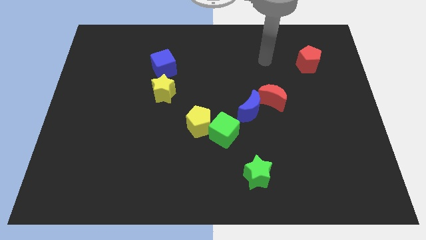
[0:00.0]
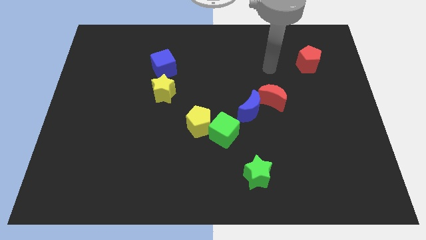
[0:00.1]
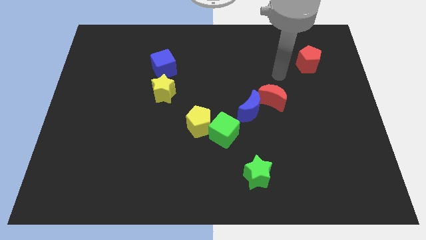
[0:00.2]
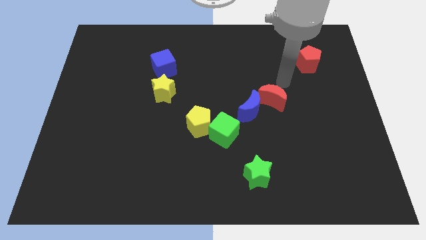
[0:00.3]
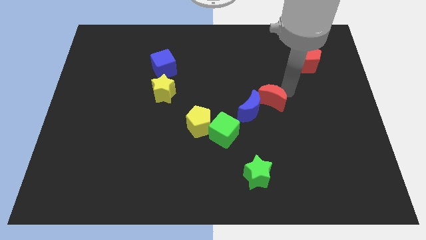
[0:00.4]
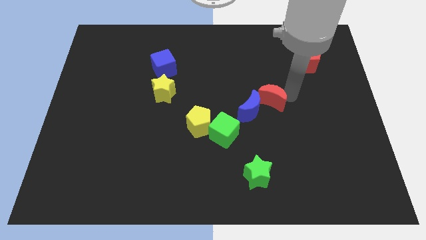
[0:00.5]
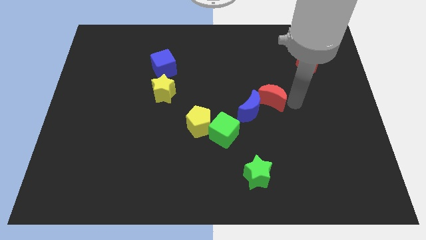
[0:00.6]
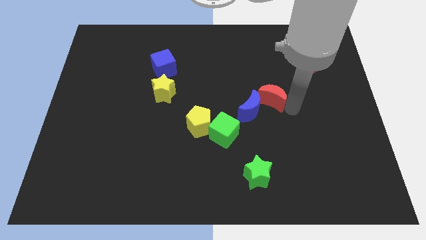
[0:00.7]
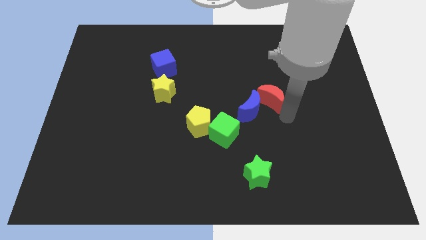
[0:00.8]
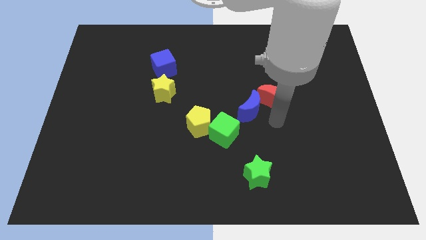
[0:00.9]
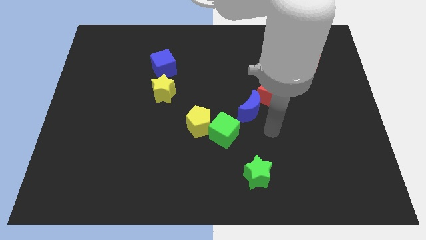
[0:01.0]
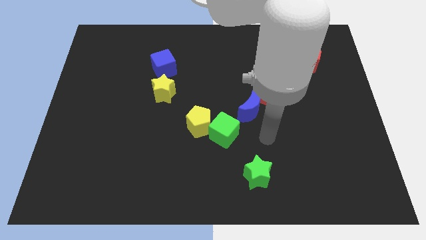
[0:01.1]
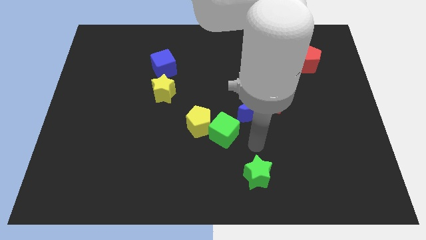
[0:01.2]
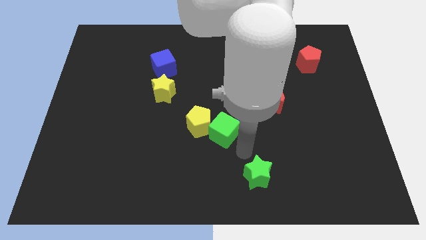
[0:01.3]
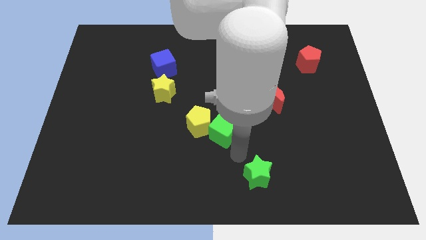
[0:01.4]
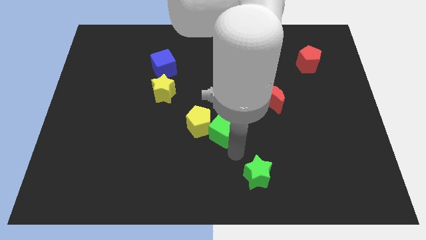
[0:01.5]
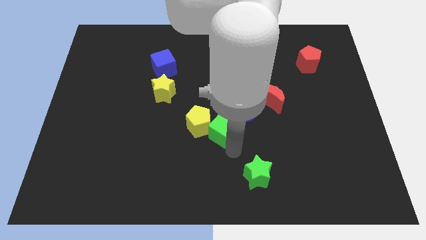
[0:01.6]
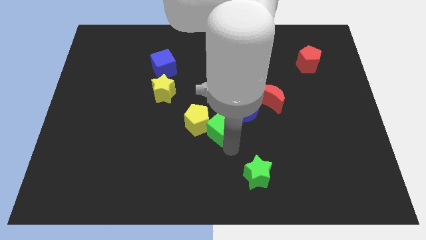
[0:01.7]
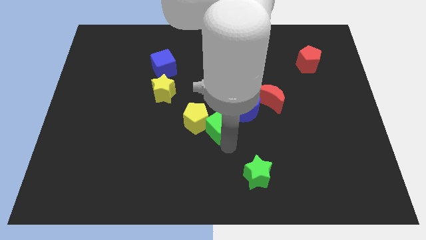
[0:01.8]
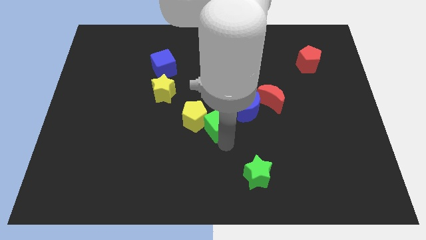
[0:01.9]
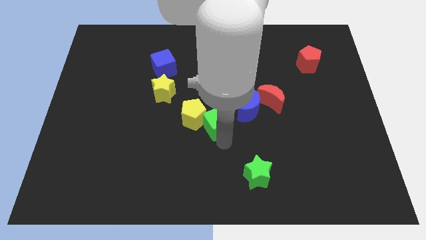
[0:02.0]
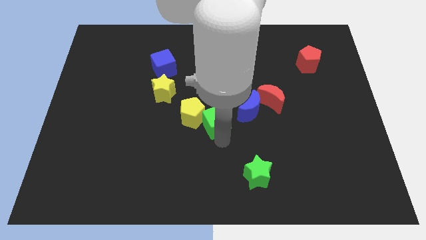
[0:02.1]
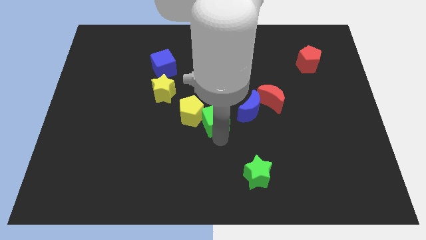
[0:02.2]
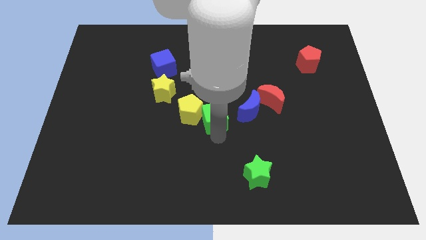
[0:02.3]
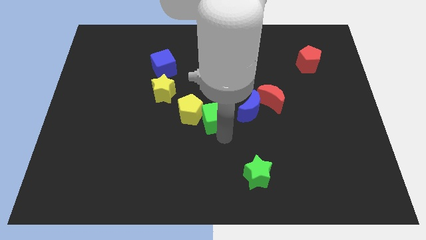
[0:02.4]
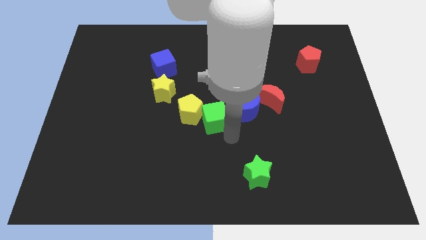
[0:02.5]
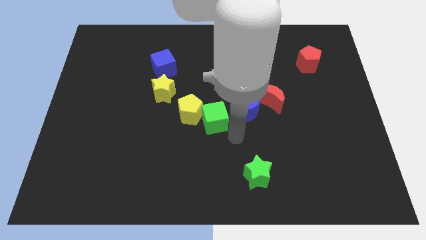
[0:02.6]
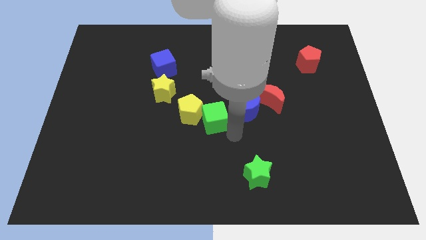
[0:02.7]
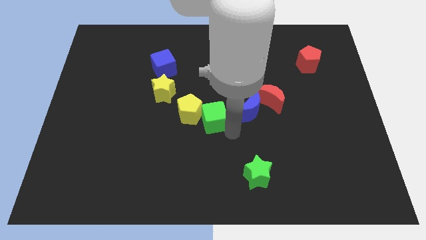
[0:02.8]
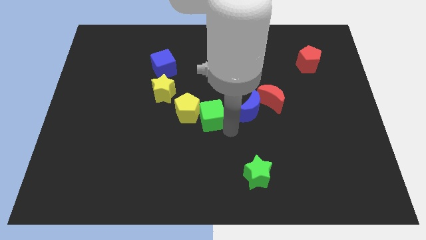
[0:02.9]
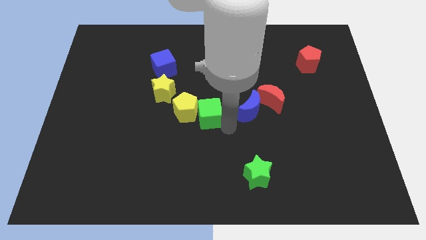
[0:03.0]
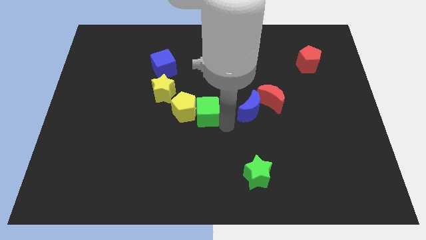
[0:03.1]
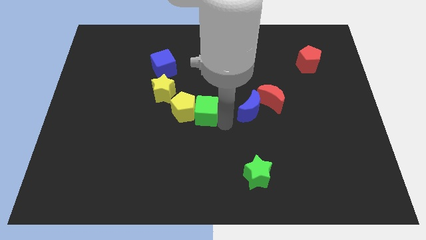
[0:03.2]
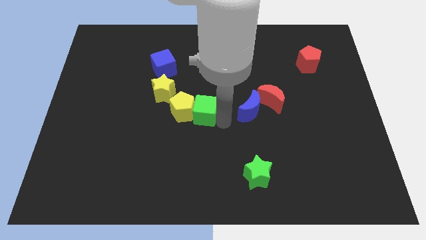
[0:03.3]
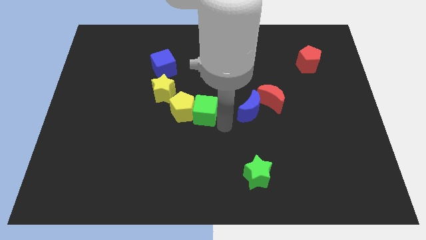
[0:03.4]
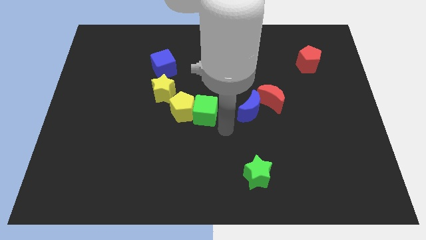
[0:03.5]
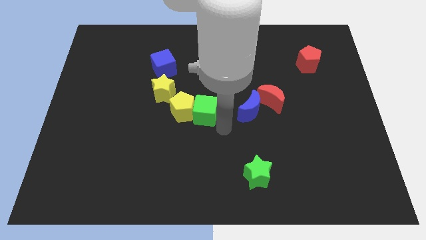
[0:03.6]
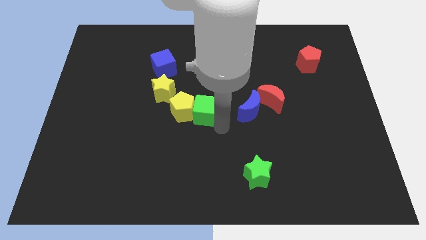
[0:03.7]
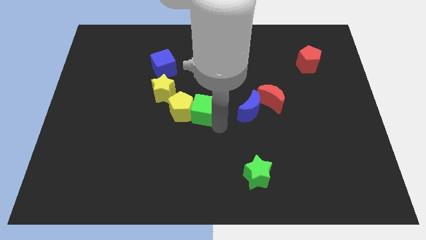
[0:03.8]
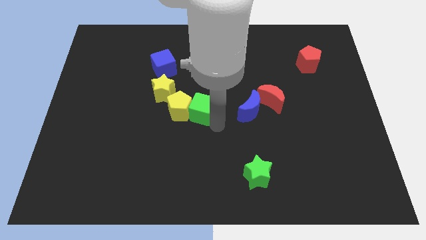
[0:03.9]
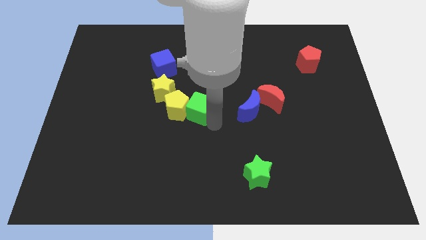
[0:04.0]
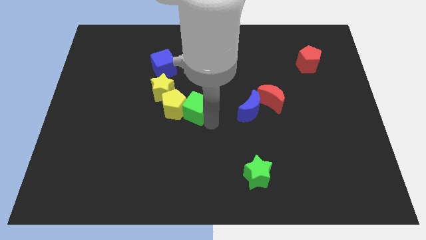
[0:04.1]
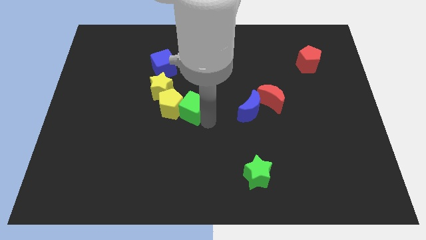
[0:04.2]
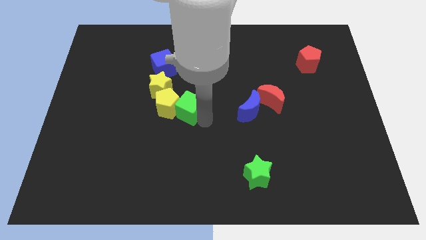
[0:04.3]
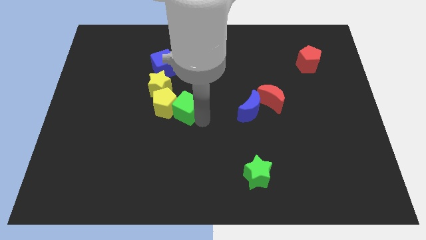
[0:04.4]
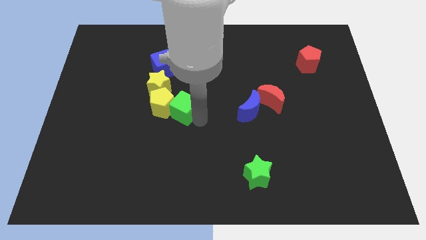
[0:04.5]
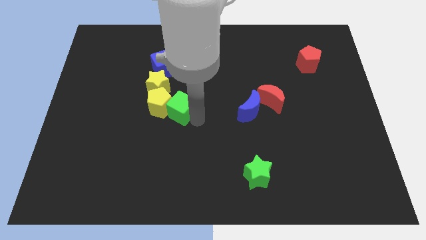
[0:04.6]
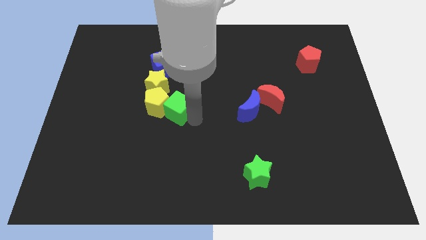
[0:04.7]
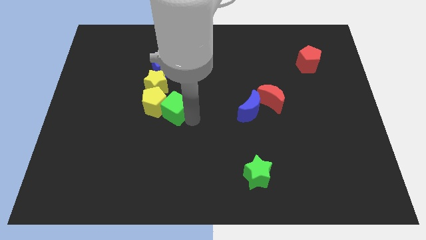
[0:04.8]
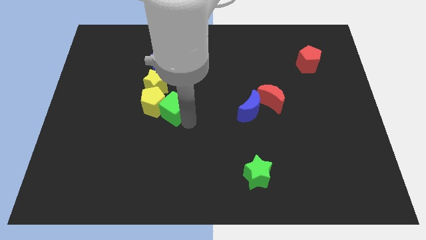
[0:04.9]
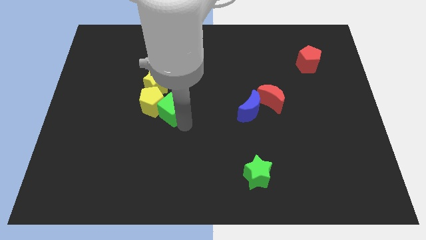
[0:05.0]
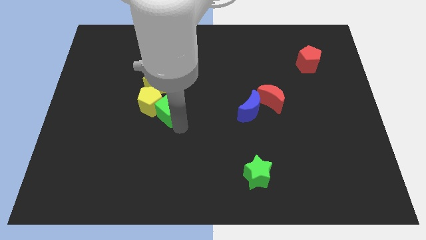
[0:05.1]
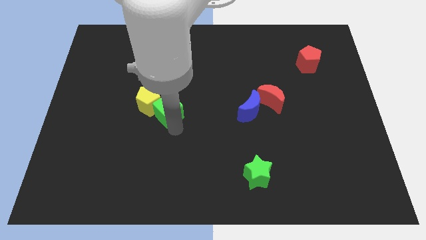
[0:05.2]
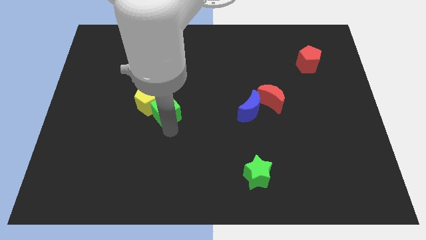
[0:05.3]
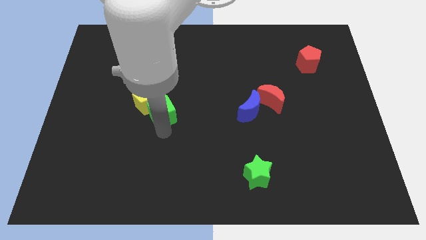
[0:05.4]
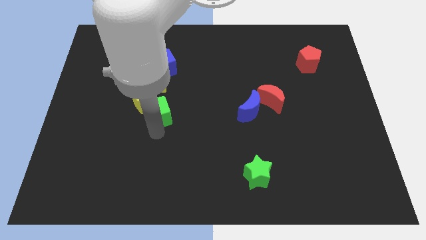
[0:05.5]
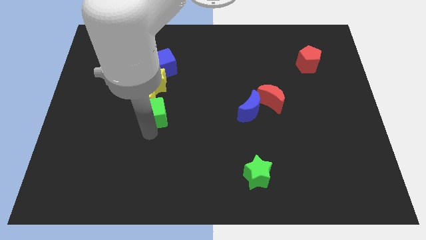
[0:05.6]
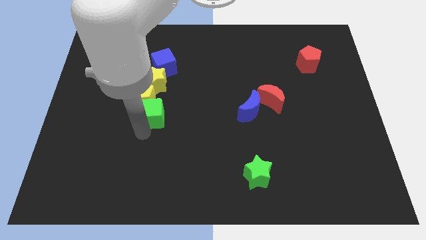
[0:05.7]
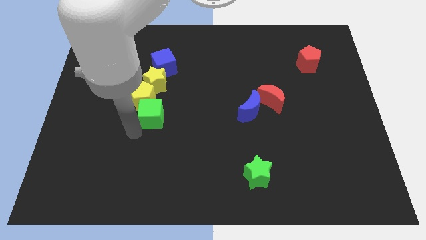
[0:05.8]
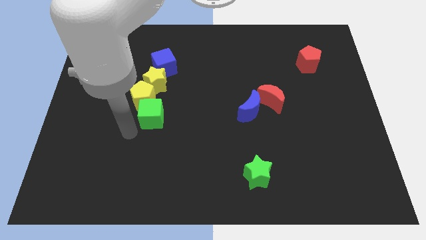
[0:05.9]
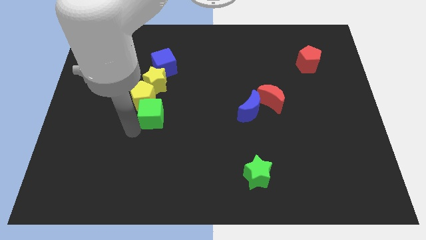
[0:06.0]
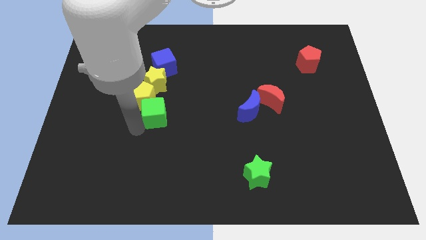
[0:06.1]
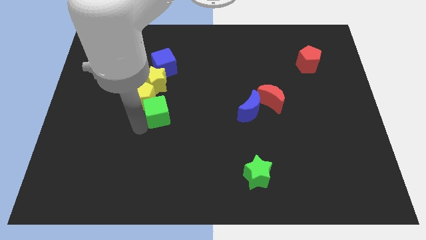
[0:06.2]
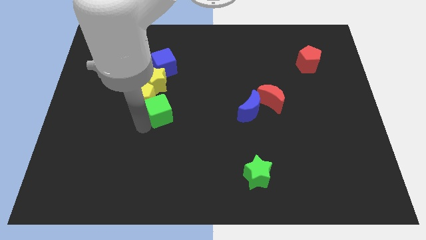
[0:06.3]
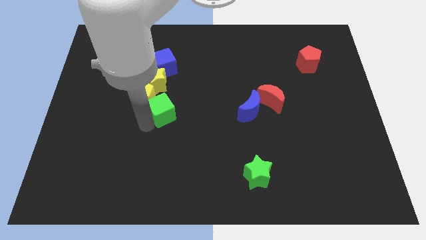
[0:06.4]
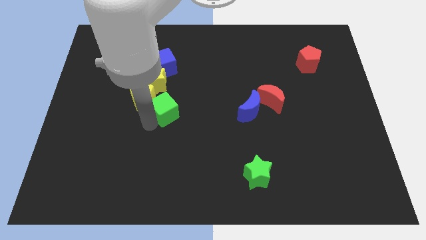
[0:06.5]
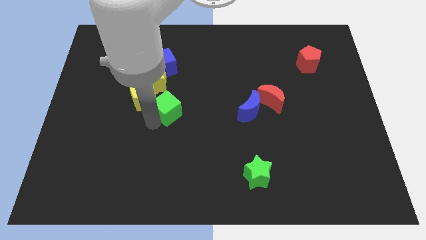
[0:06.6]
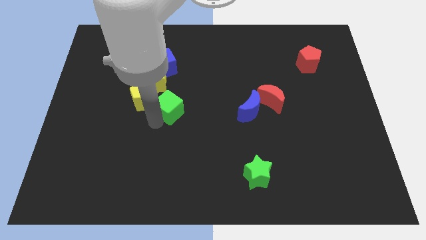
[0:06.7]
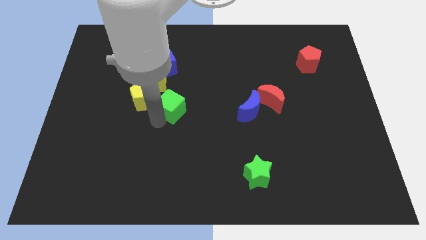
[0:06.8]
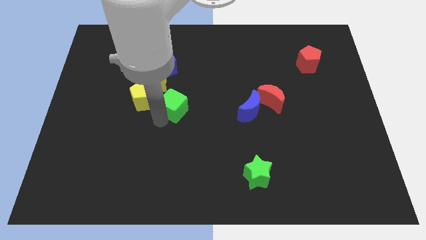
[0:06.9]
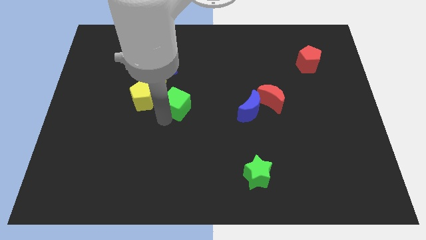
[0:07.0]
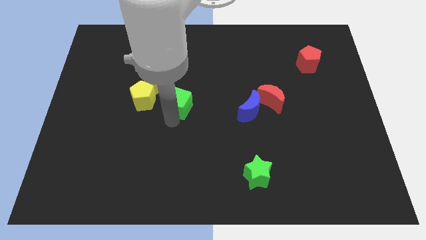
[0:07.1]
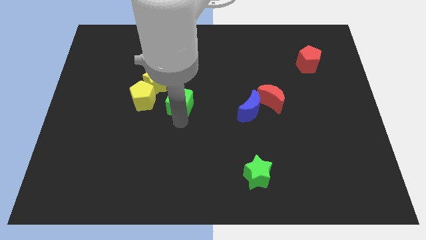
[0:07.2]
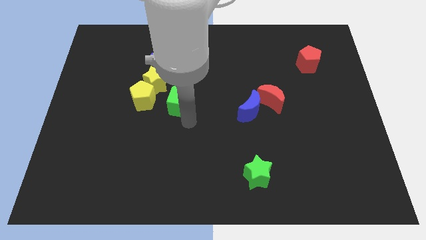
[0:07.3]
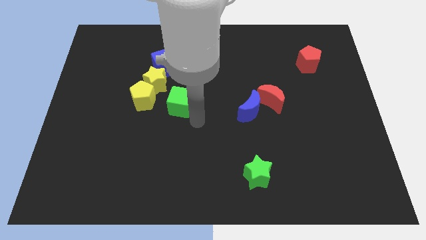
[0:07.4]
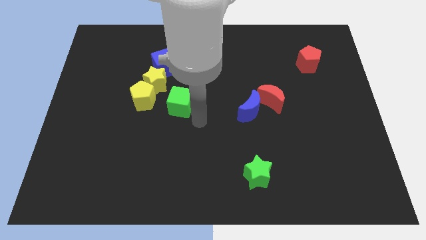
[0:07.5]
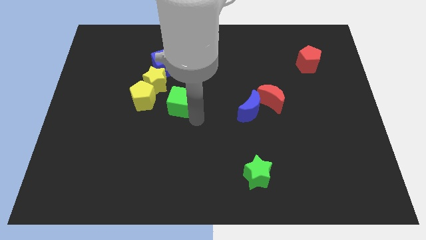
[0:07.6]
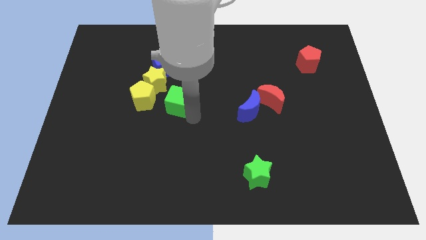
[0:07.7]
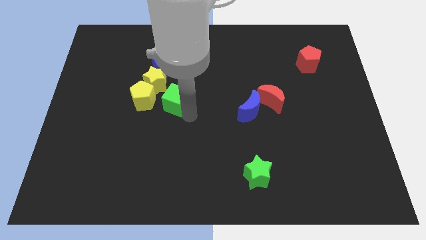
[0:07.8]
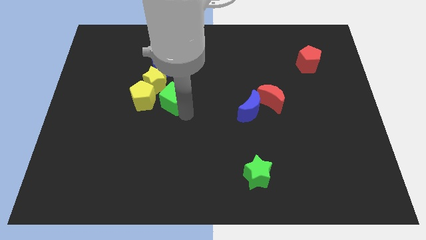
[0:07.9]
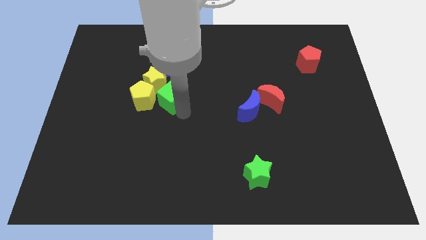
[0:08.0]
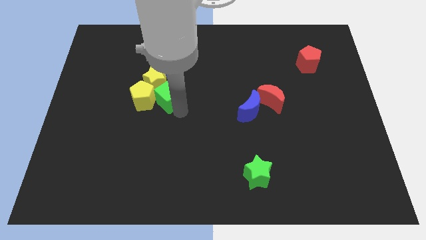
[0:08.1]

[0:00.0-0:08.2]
slide the green cube next to the yellow star
